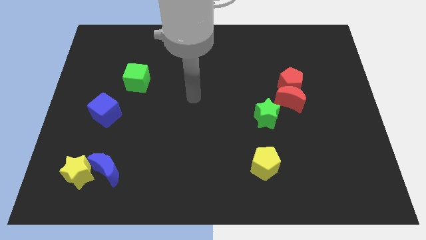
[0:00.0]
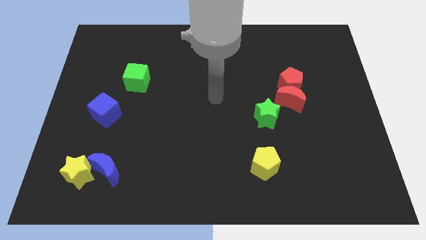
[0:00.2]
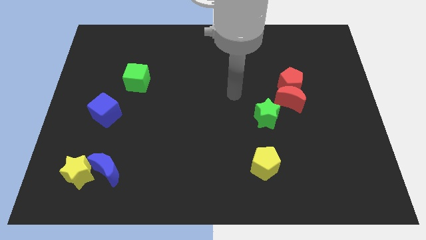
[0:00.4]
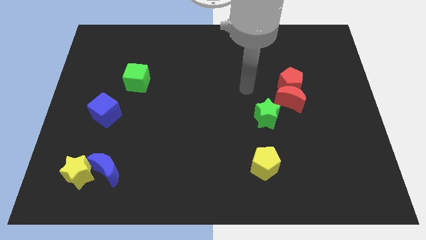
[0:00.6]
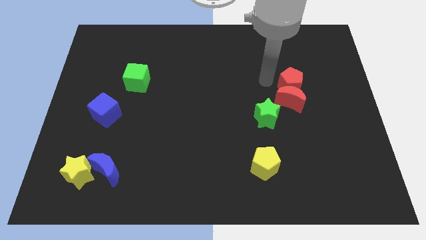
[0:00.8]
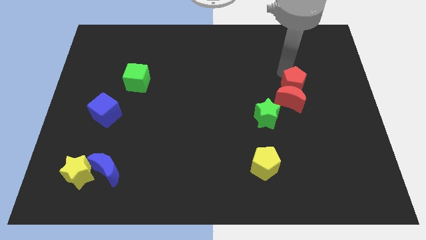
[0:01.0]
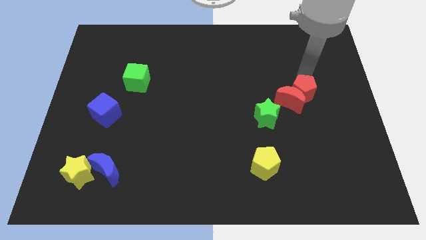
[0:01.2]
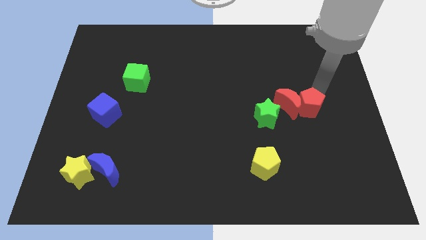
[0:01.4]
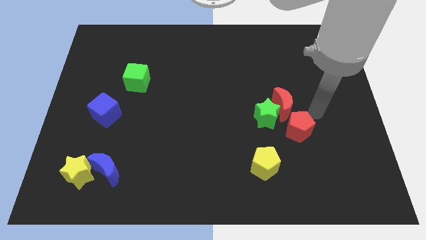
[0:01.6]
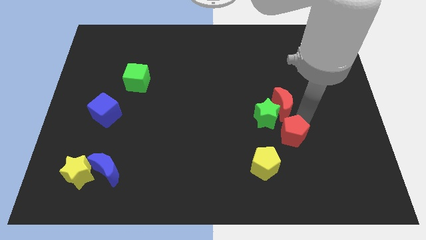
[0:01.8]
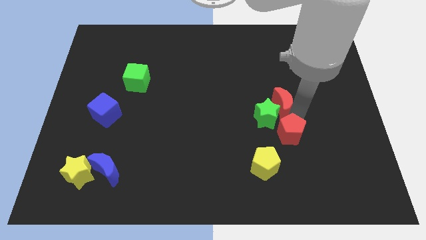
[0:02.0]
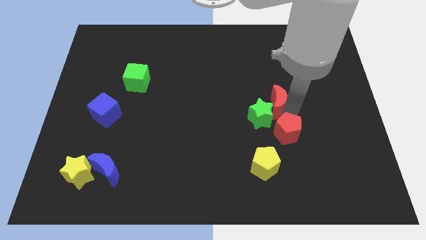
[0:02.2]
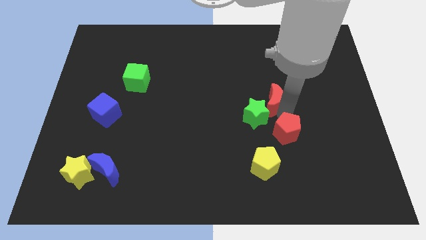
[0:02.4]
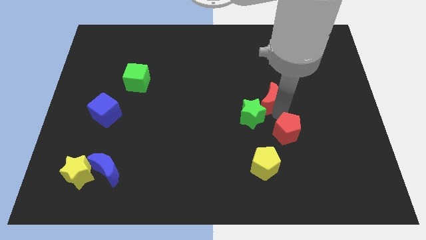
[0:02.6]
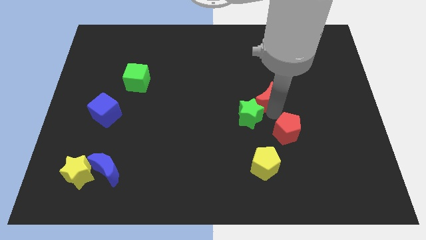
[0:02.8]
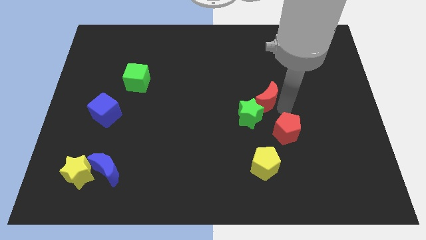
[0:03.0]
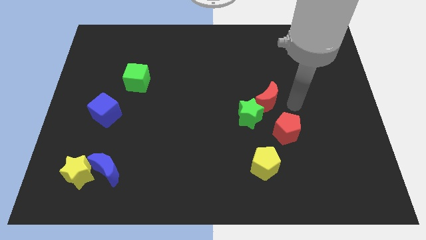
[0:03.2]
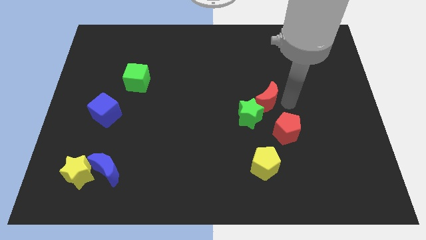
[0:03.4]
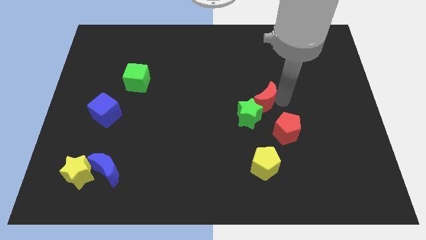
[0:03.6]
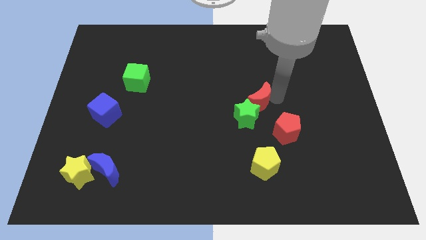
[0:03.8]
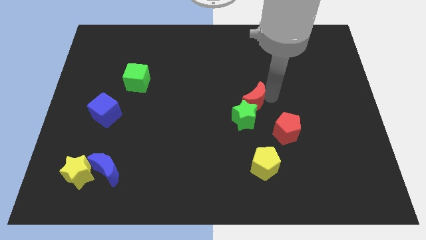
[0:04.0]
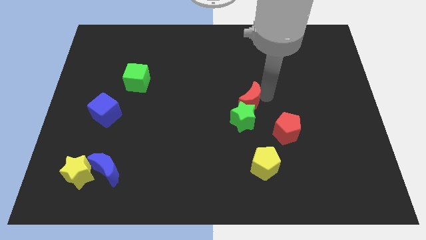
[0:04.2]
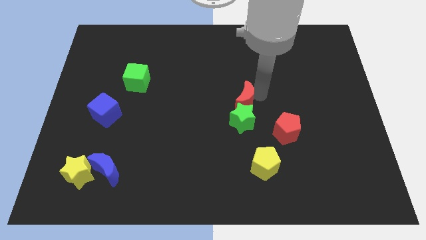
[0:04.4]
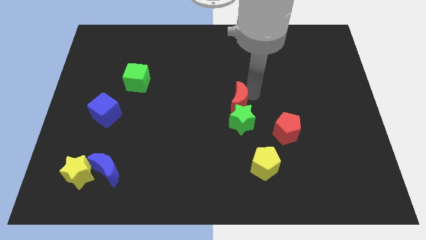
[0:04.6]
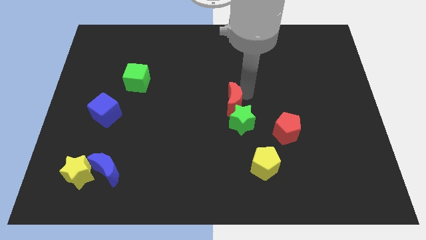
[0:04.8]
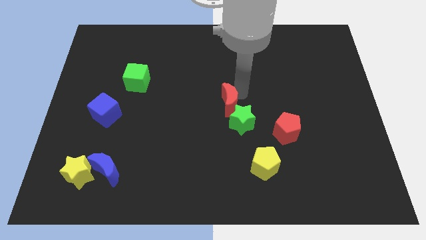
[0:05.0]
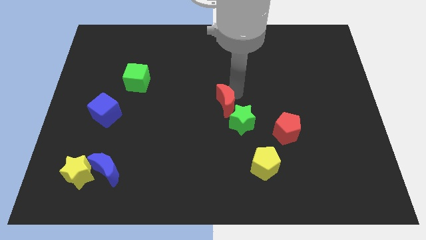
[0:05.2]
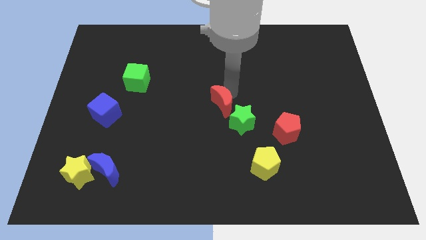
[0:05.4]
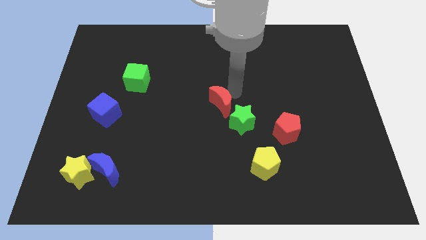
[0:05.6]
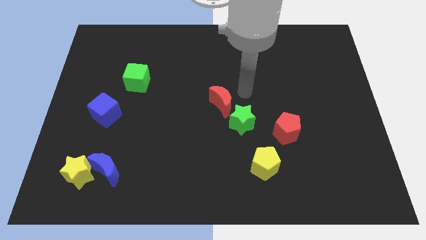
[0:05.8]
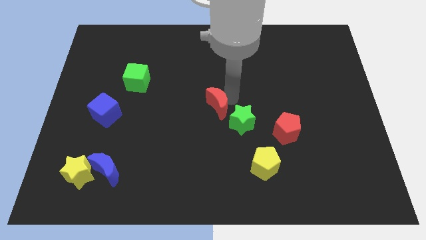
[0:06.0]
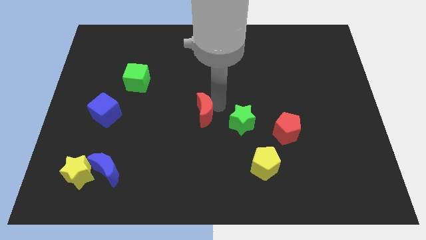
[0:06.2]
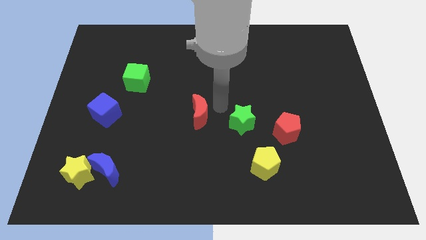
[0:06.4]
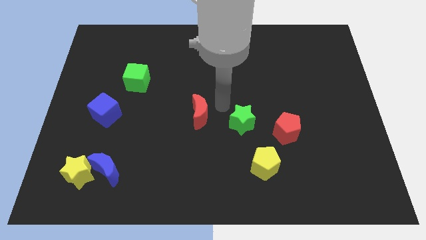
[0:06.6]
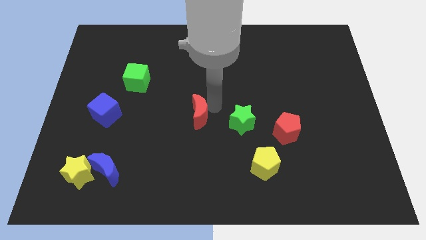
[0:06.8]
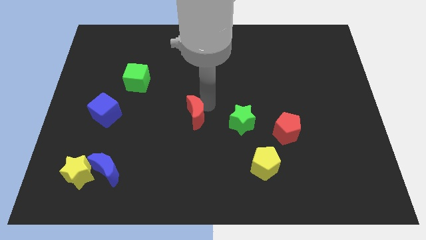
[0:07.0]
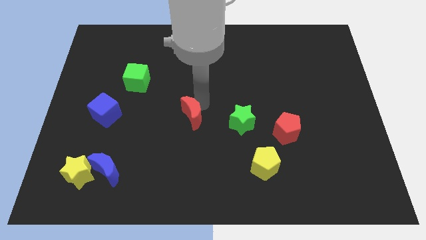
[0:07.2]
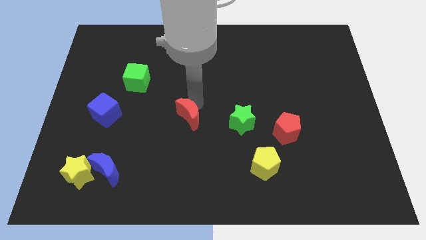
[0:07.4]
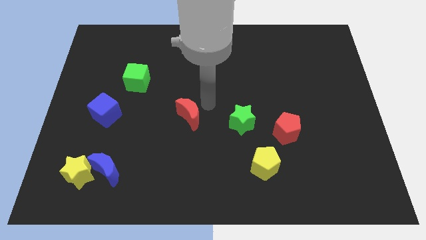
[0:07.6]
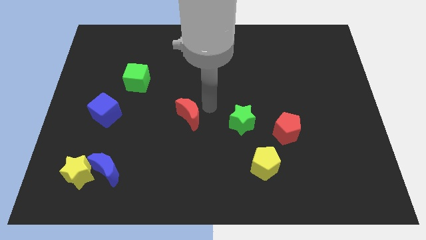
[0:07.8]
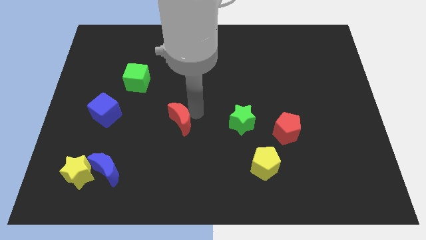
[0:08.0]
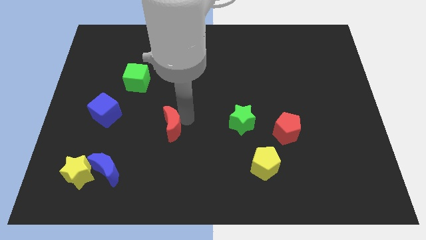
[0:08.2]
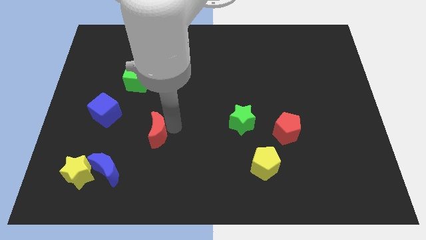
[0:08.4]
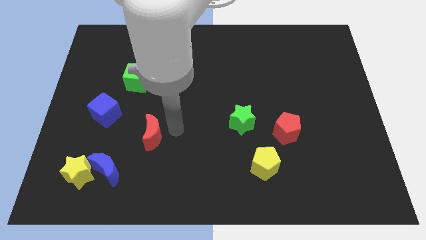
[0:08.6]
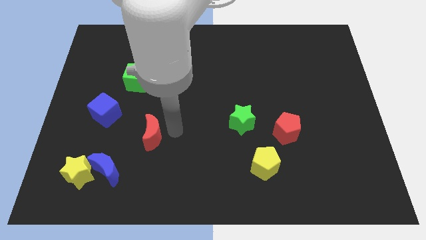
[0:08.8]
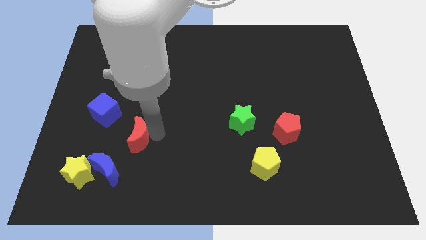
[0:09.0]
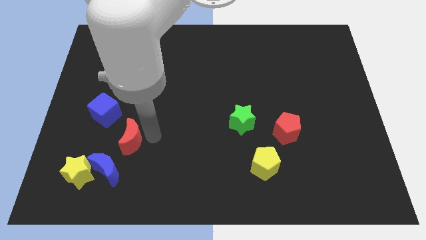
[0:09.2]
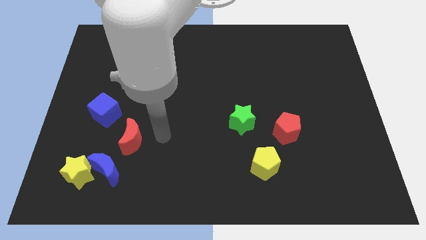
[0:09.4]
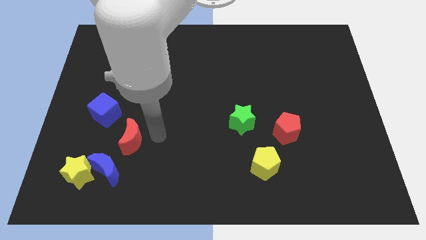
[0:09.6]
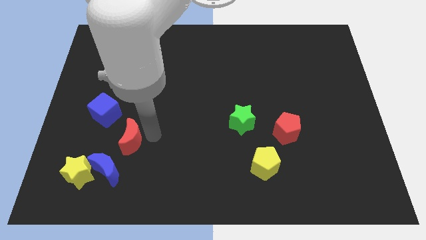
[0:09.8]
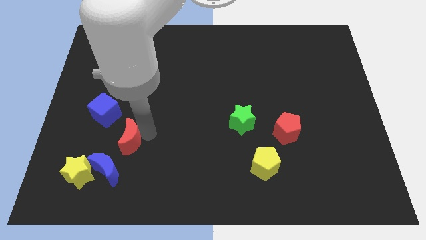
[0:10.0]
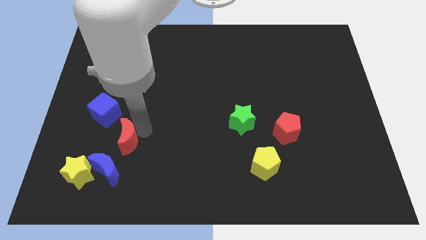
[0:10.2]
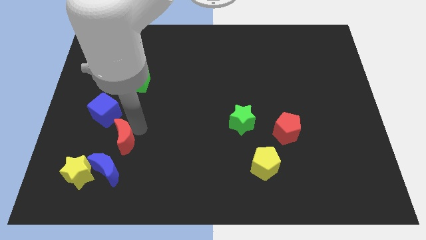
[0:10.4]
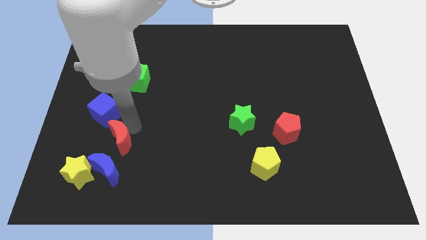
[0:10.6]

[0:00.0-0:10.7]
slide the red moon to the bottom side of the blue cube

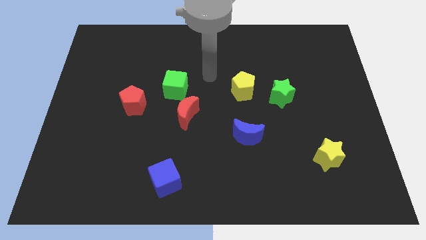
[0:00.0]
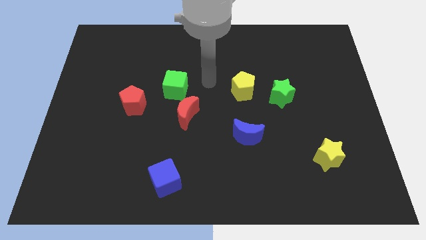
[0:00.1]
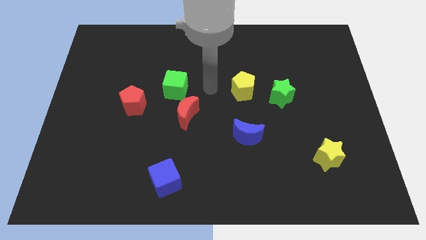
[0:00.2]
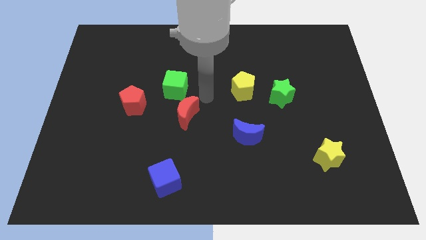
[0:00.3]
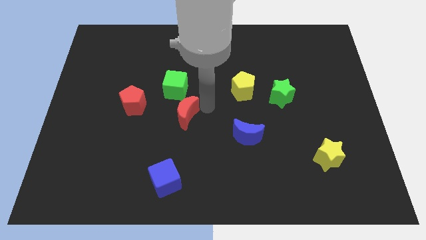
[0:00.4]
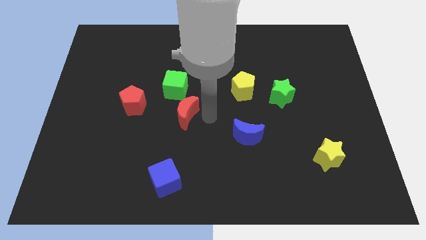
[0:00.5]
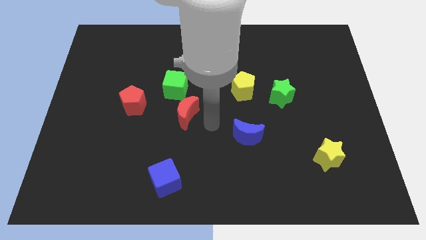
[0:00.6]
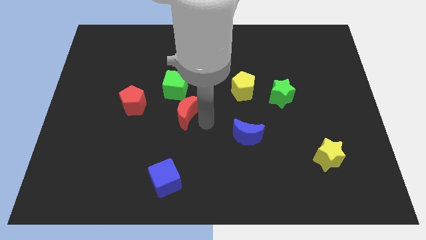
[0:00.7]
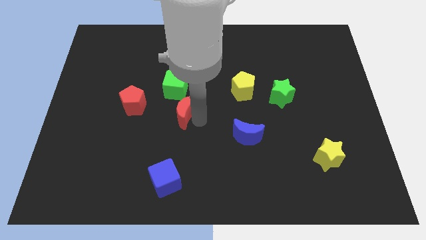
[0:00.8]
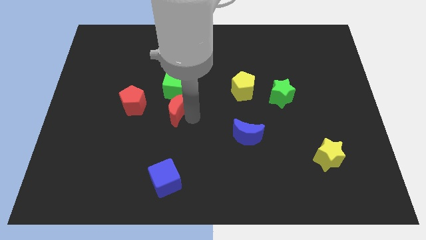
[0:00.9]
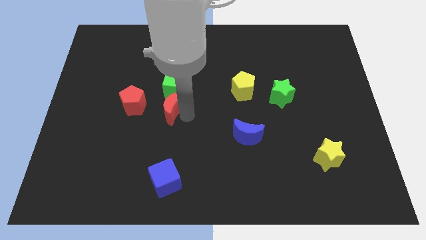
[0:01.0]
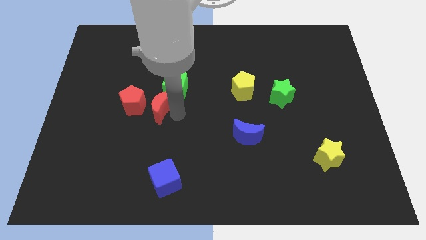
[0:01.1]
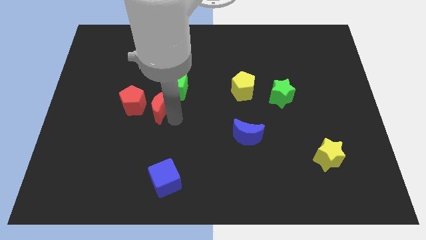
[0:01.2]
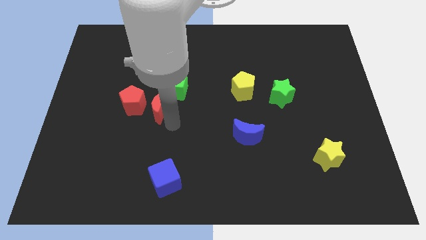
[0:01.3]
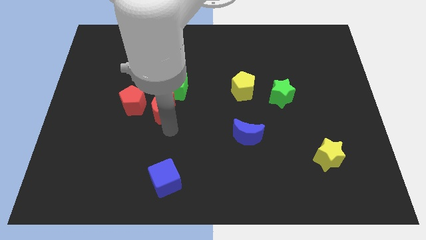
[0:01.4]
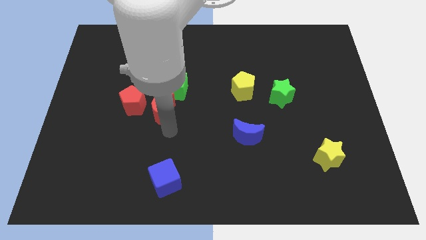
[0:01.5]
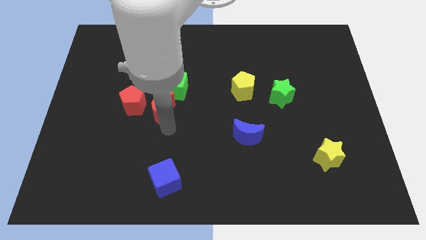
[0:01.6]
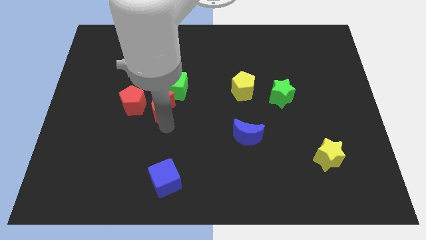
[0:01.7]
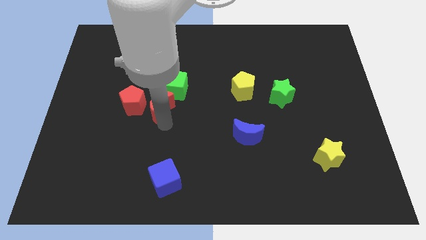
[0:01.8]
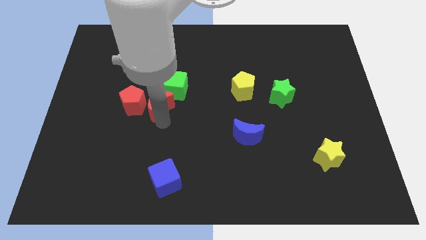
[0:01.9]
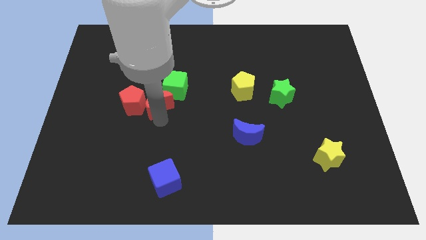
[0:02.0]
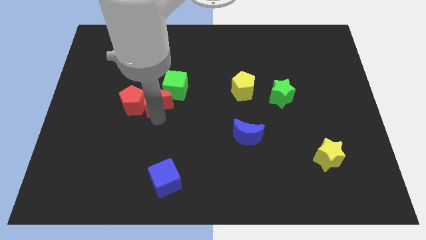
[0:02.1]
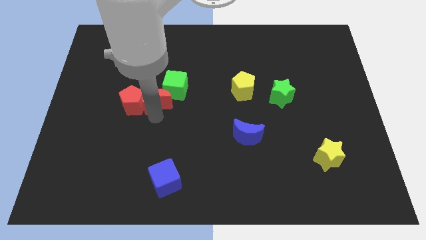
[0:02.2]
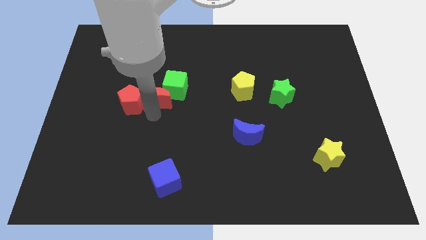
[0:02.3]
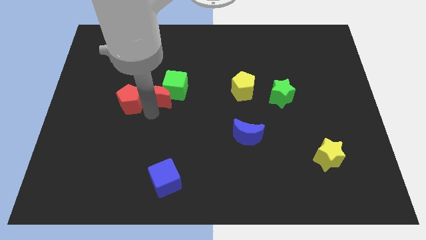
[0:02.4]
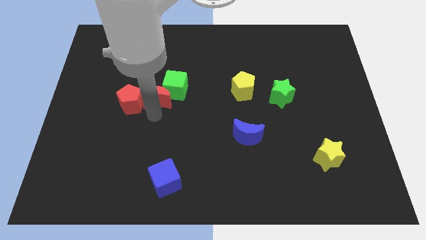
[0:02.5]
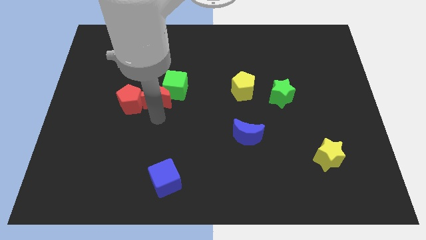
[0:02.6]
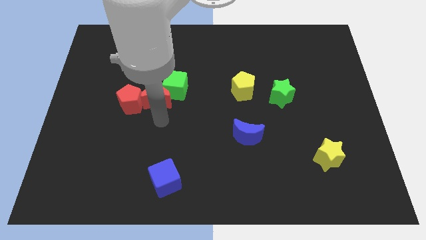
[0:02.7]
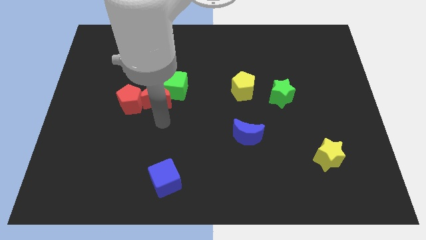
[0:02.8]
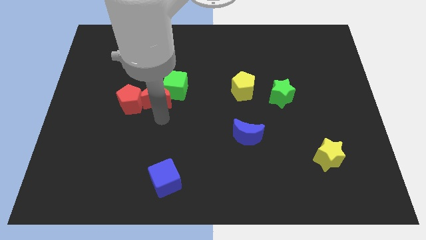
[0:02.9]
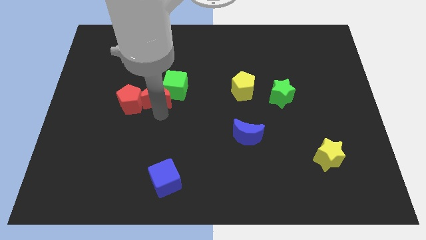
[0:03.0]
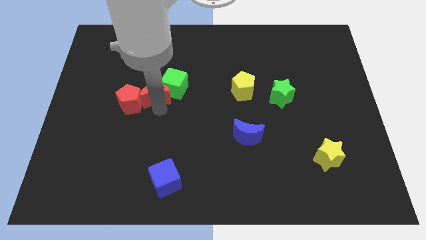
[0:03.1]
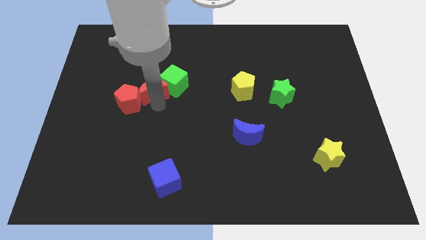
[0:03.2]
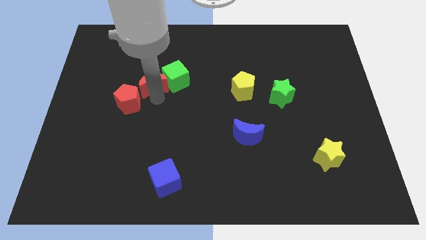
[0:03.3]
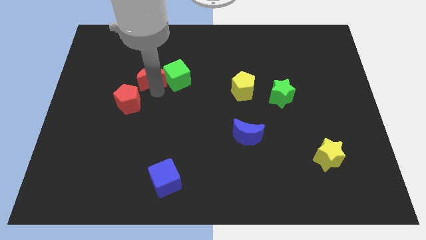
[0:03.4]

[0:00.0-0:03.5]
put the red moon to the top side of the red pentagon
